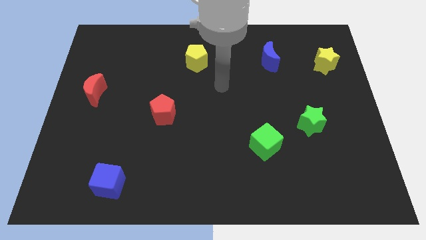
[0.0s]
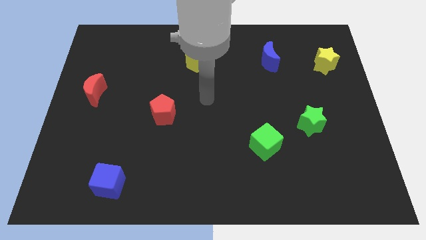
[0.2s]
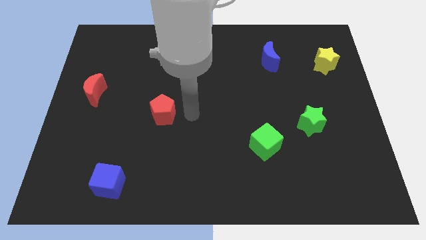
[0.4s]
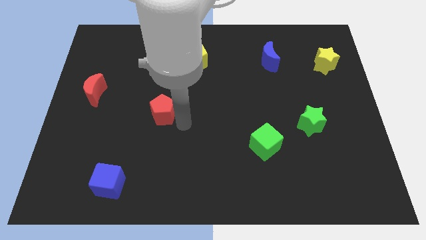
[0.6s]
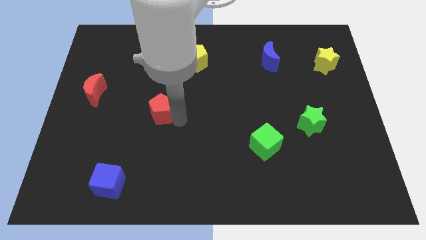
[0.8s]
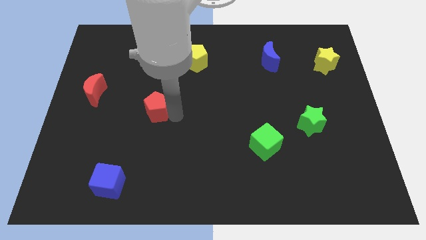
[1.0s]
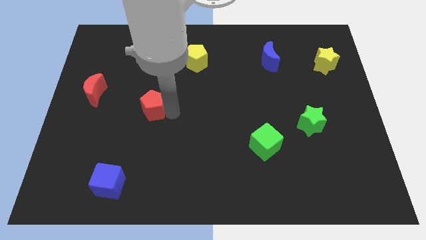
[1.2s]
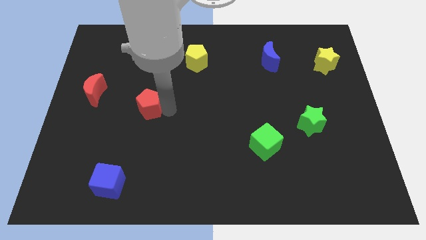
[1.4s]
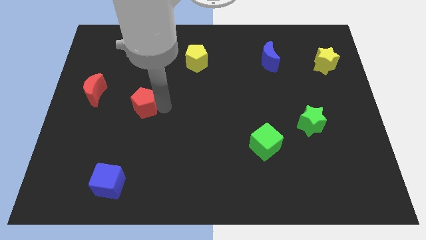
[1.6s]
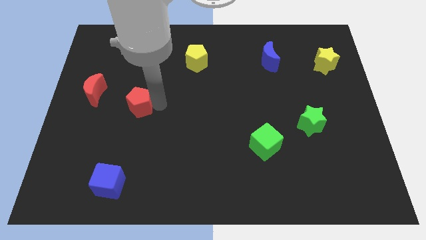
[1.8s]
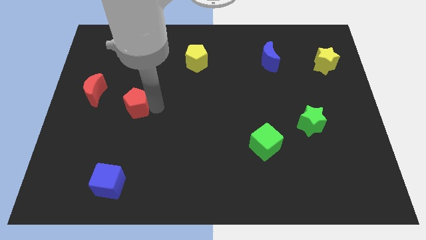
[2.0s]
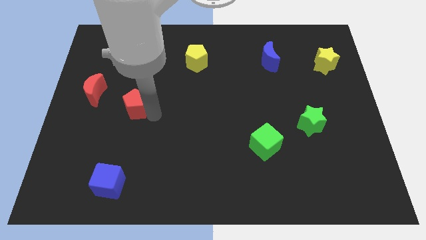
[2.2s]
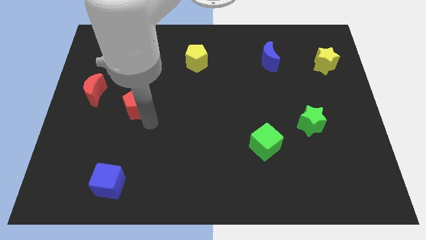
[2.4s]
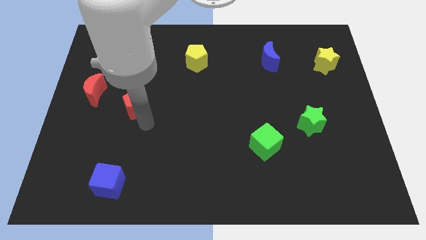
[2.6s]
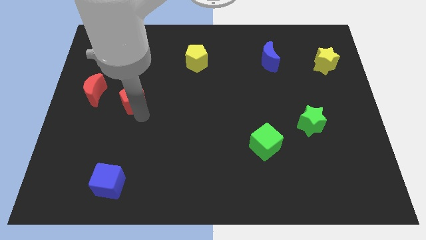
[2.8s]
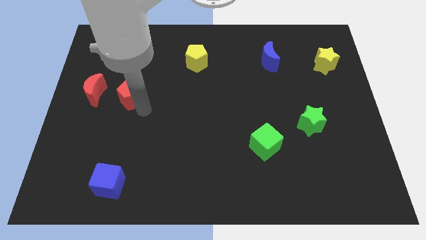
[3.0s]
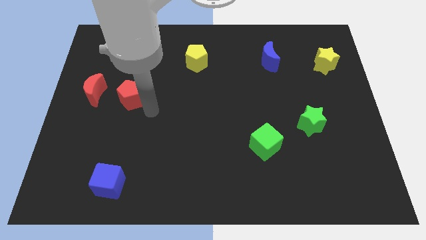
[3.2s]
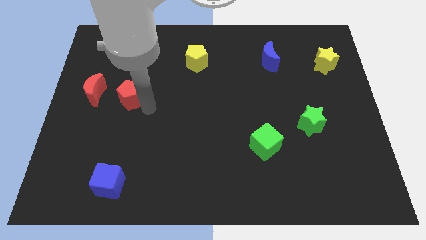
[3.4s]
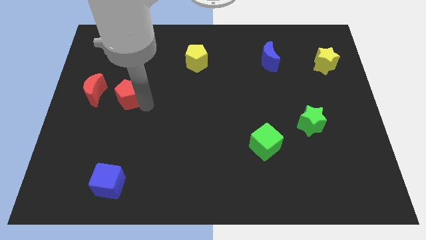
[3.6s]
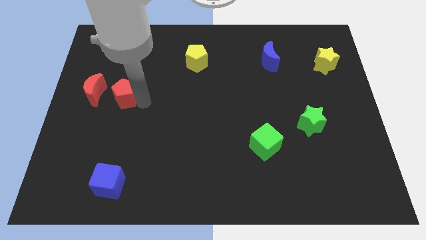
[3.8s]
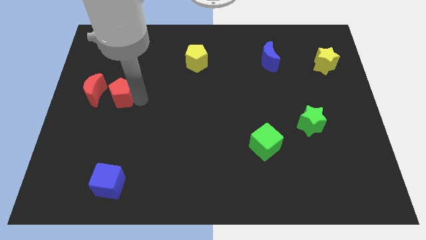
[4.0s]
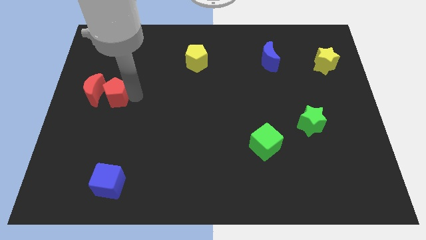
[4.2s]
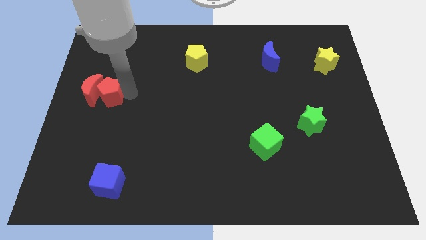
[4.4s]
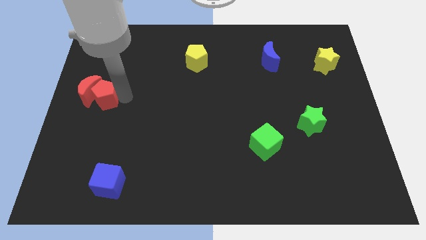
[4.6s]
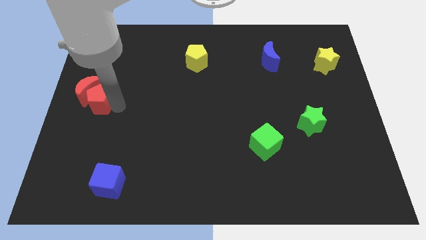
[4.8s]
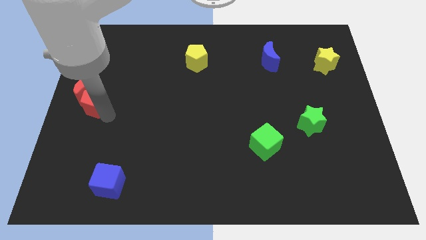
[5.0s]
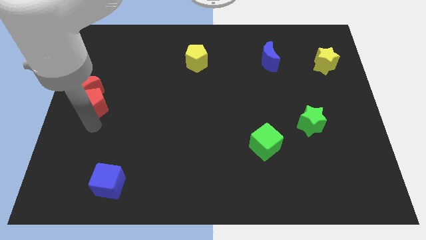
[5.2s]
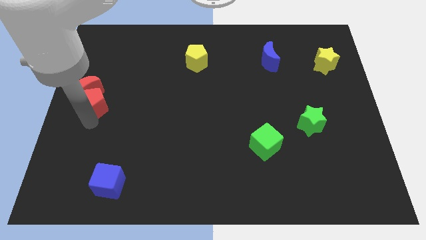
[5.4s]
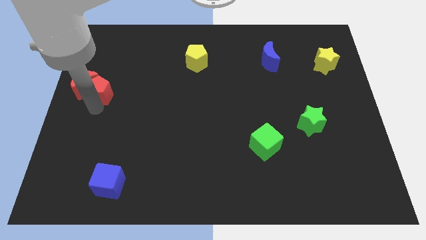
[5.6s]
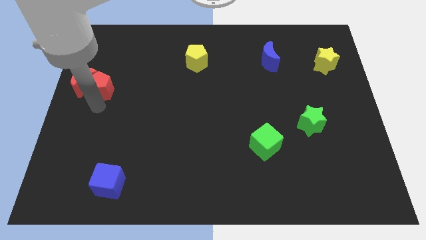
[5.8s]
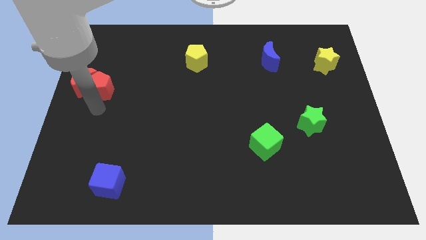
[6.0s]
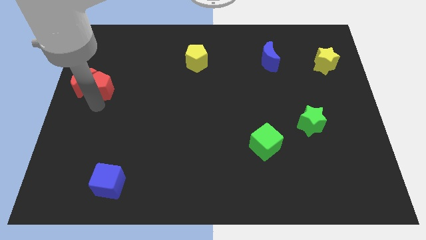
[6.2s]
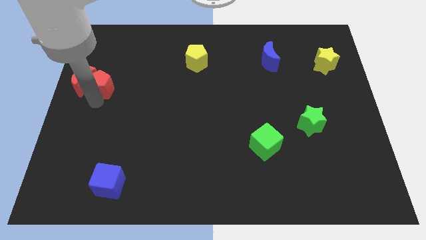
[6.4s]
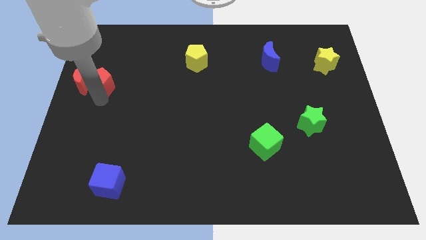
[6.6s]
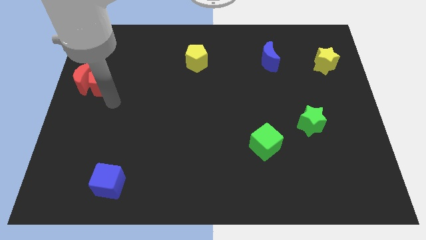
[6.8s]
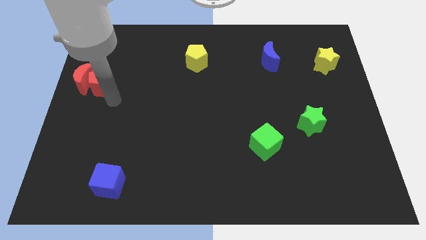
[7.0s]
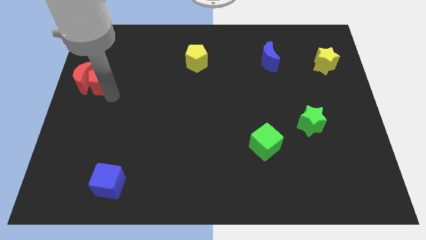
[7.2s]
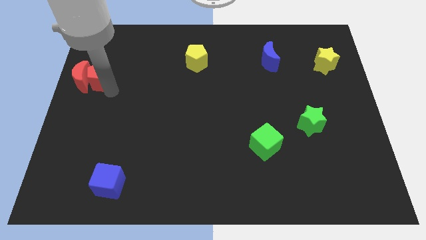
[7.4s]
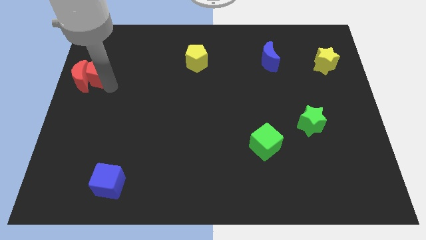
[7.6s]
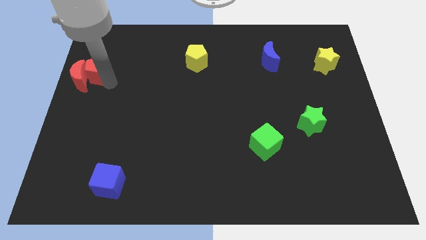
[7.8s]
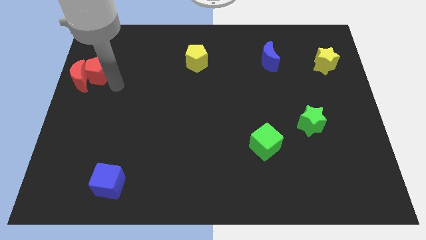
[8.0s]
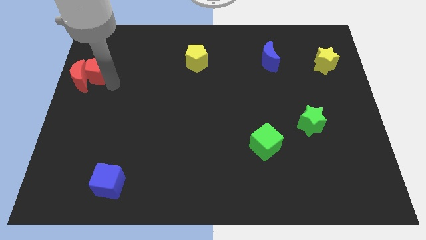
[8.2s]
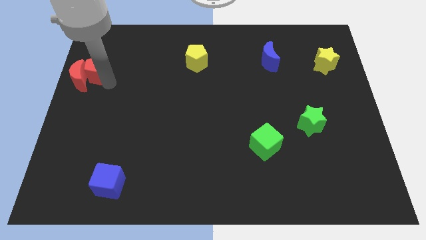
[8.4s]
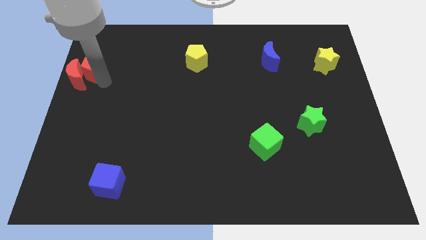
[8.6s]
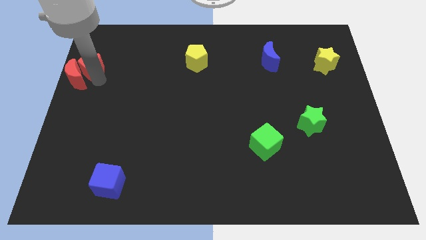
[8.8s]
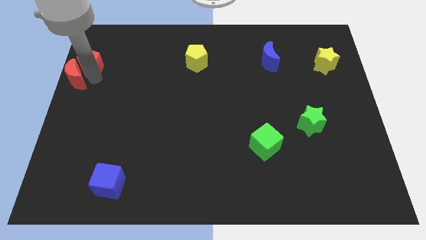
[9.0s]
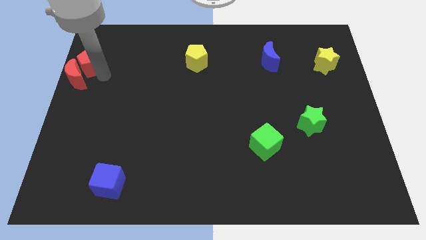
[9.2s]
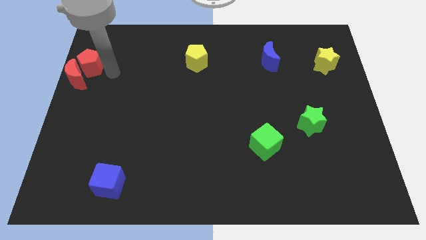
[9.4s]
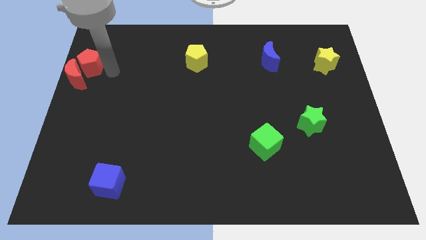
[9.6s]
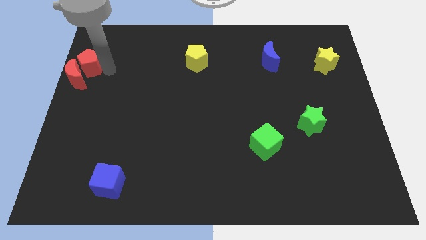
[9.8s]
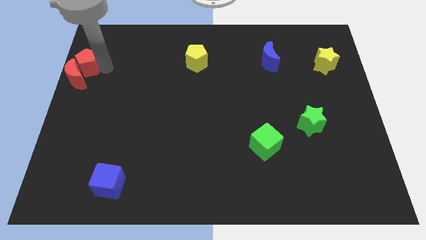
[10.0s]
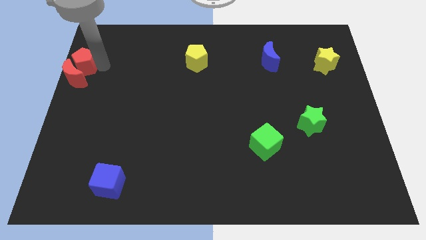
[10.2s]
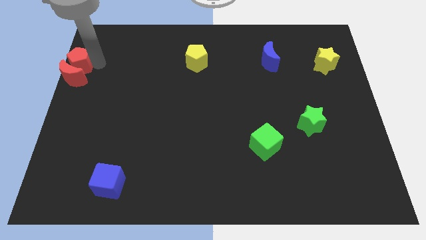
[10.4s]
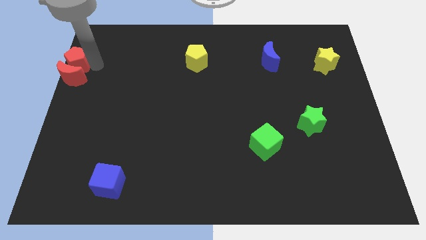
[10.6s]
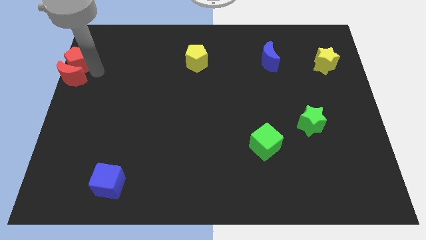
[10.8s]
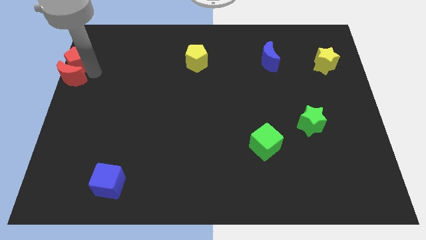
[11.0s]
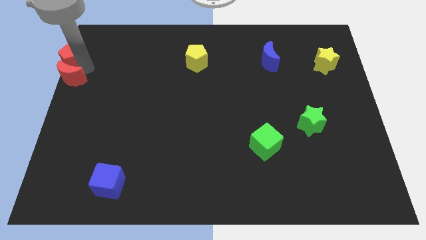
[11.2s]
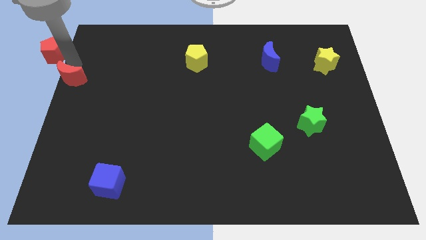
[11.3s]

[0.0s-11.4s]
move the red pentagon to the upper left corner
